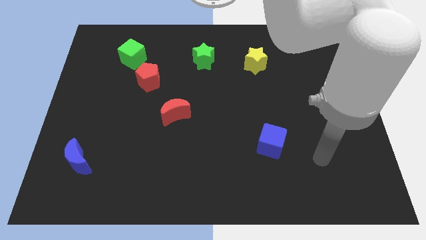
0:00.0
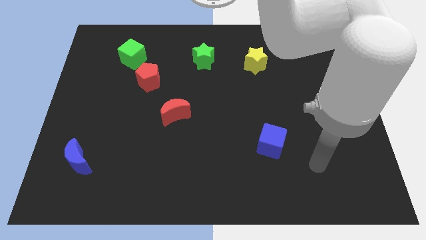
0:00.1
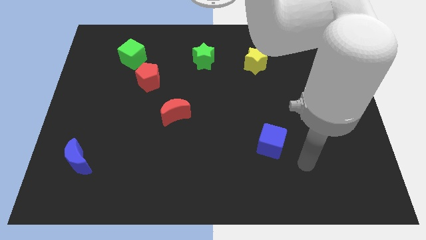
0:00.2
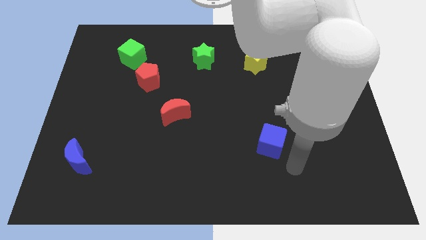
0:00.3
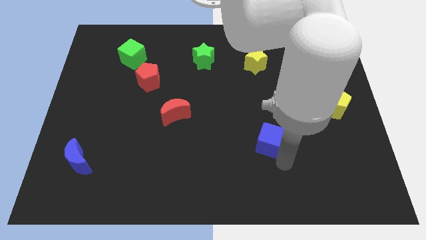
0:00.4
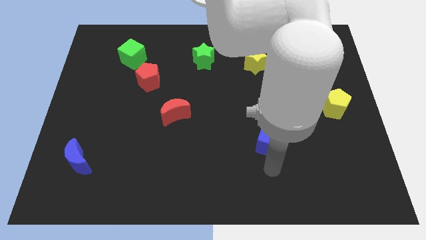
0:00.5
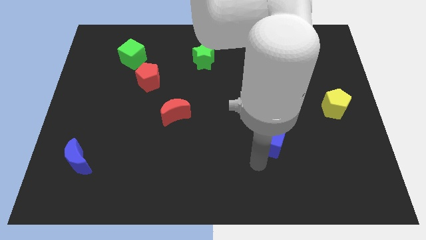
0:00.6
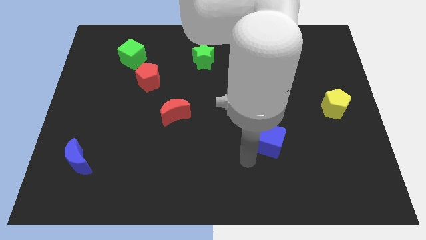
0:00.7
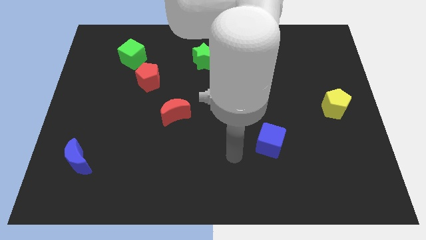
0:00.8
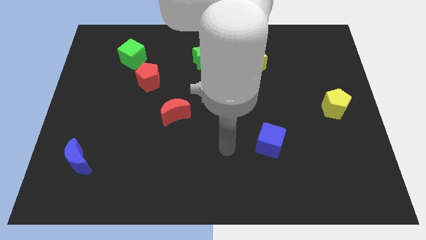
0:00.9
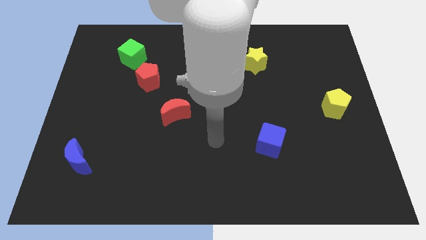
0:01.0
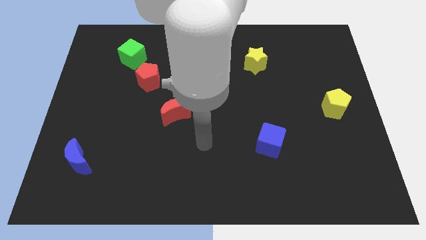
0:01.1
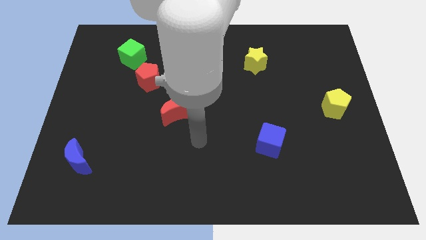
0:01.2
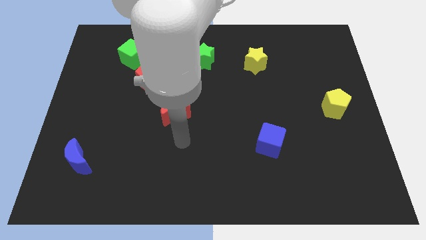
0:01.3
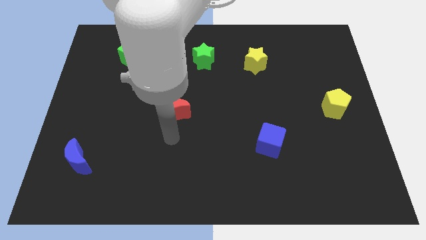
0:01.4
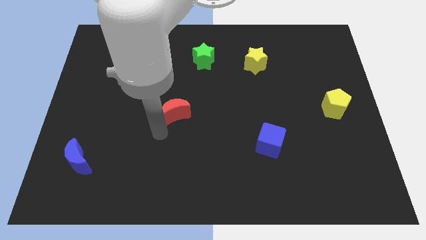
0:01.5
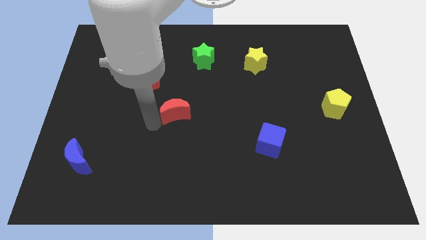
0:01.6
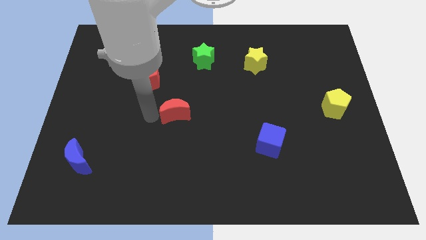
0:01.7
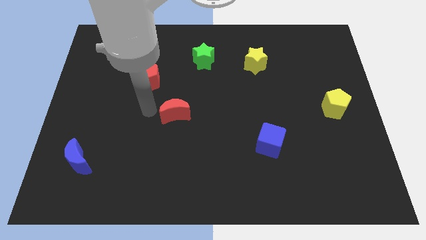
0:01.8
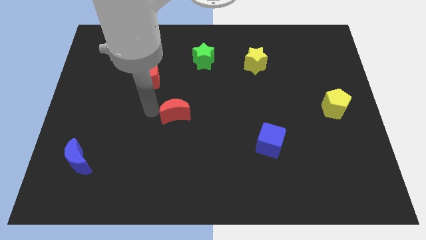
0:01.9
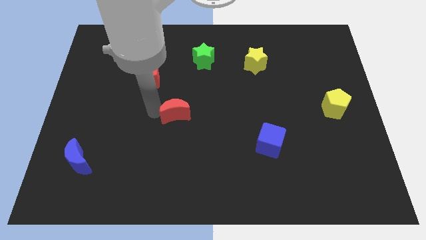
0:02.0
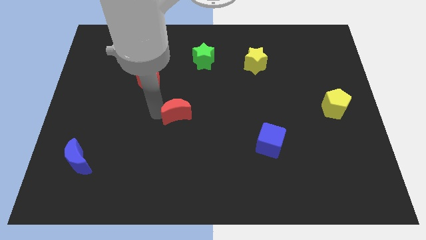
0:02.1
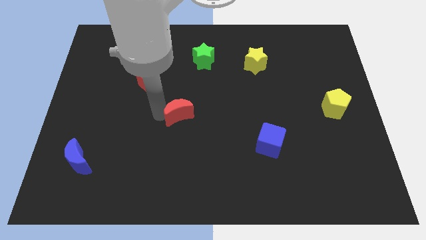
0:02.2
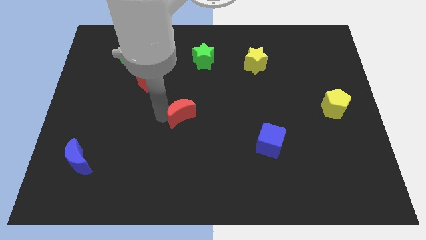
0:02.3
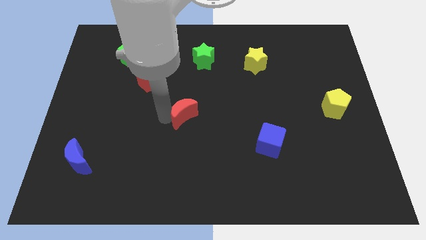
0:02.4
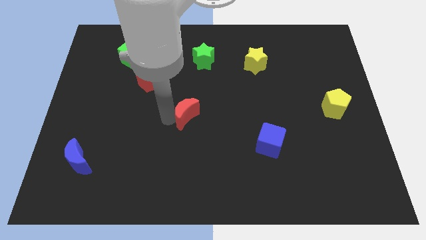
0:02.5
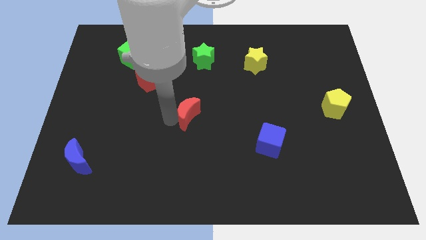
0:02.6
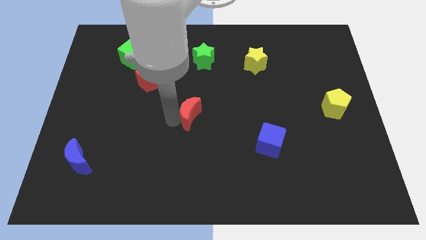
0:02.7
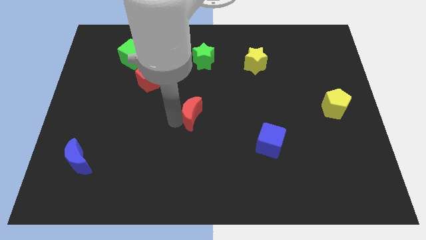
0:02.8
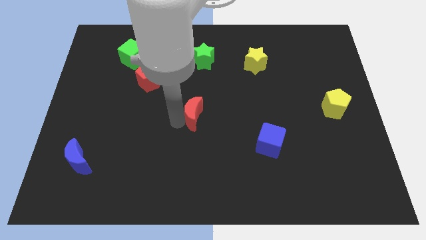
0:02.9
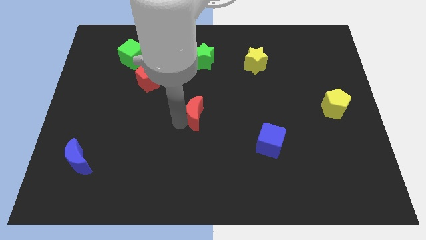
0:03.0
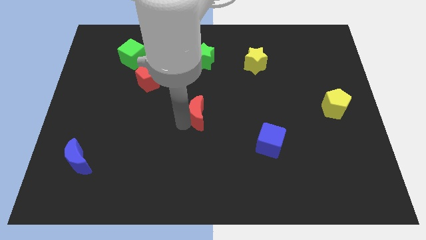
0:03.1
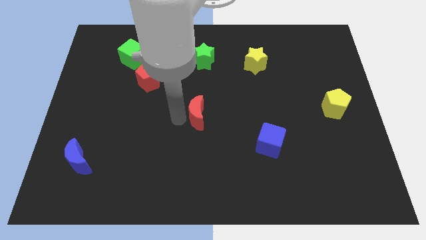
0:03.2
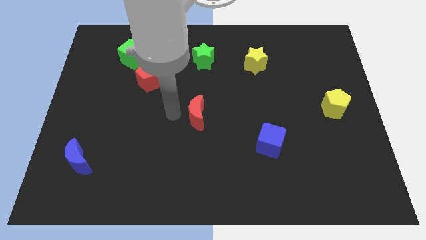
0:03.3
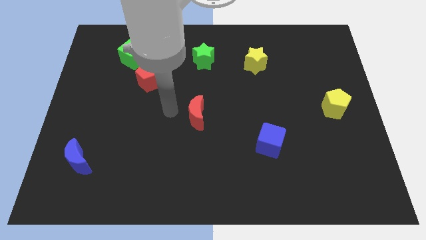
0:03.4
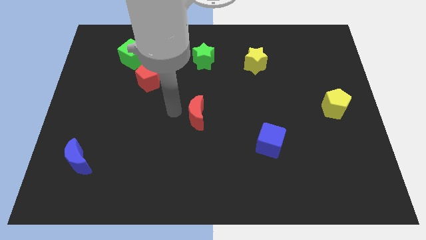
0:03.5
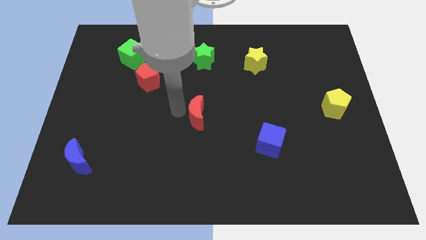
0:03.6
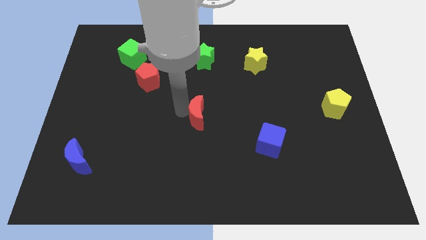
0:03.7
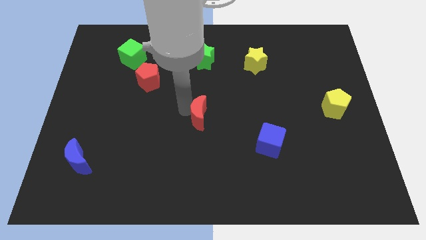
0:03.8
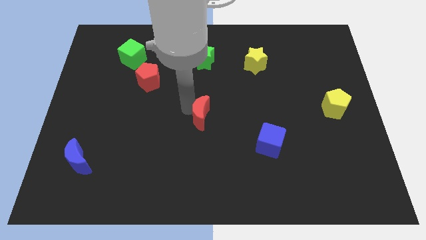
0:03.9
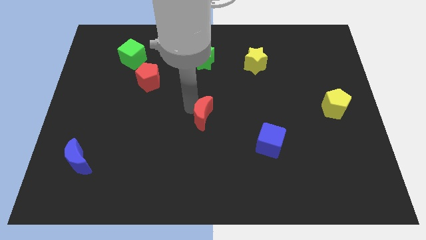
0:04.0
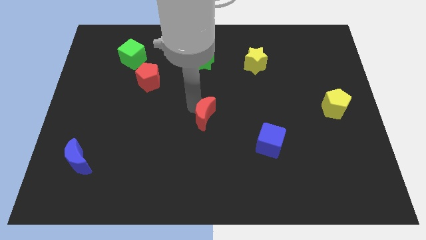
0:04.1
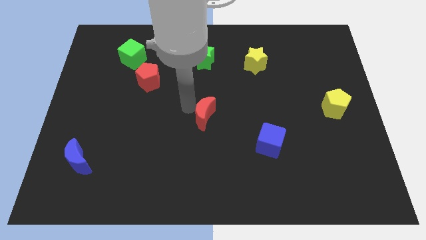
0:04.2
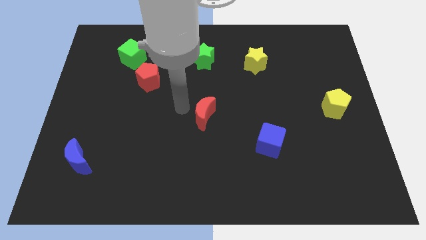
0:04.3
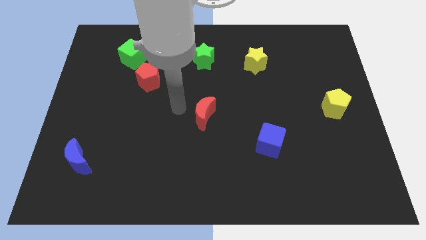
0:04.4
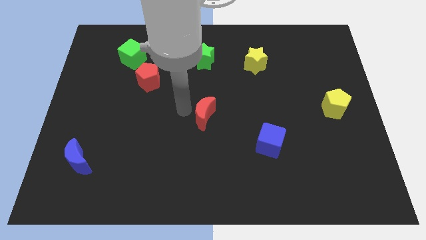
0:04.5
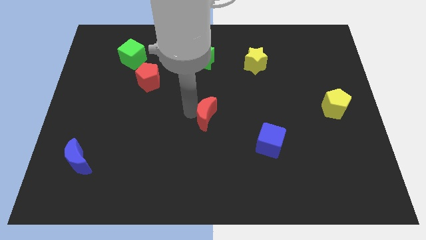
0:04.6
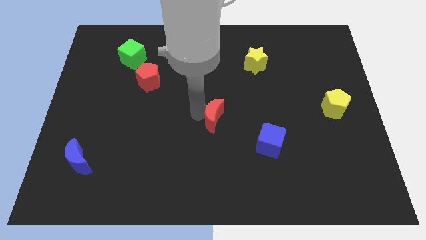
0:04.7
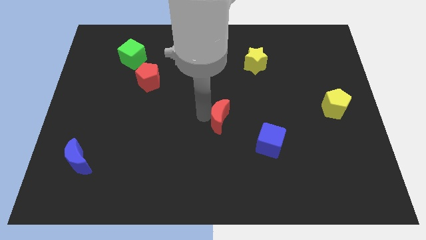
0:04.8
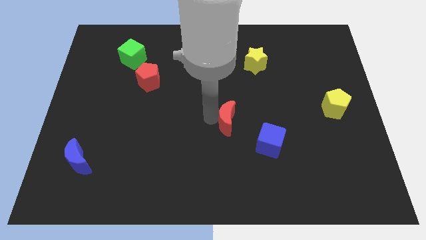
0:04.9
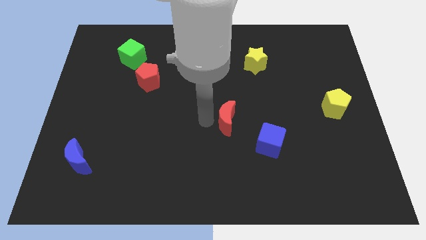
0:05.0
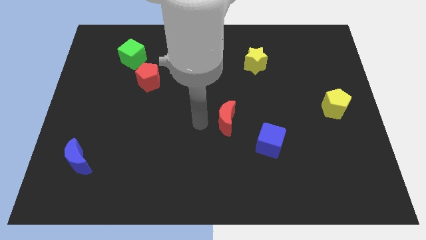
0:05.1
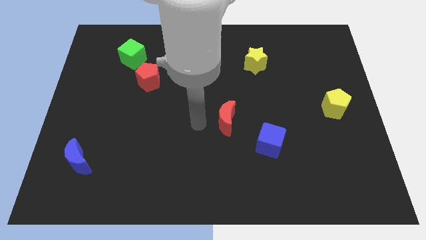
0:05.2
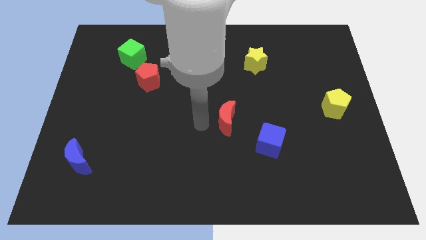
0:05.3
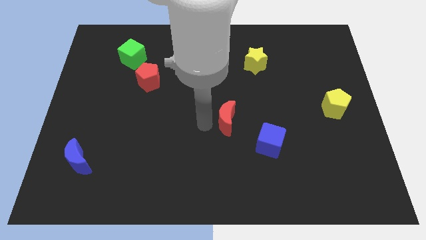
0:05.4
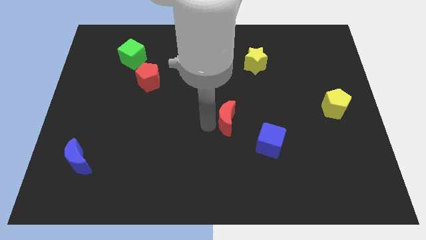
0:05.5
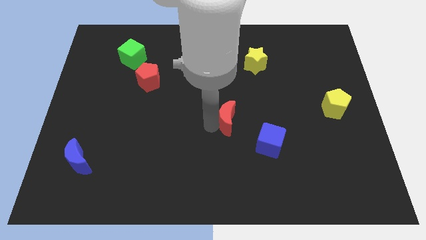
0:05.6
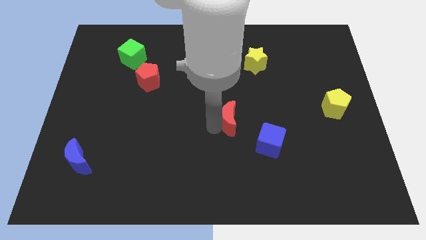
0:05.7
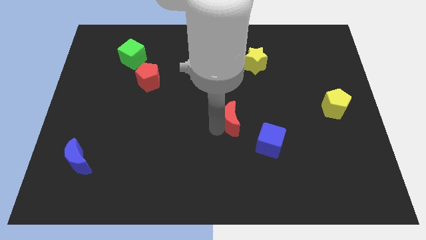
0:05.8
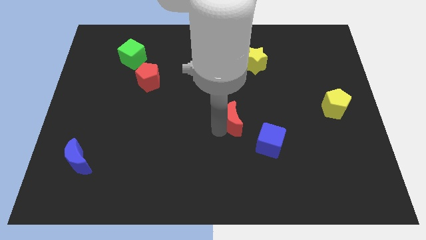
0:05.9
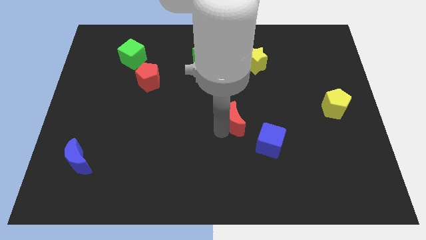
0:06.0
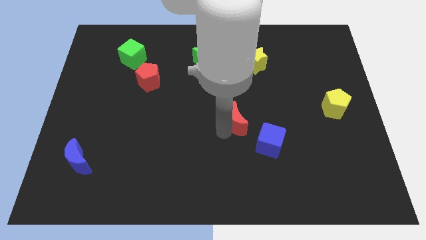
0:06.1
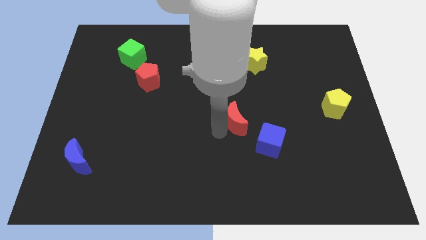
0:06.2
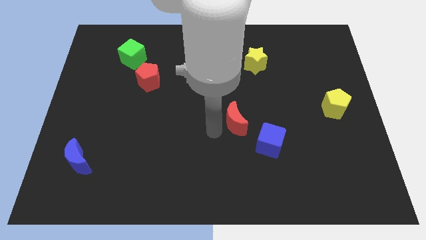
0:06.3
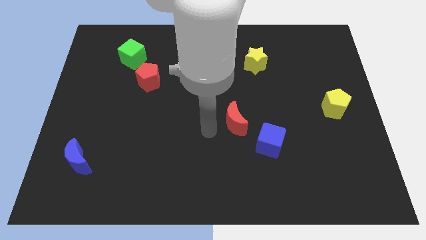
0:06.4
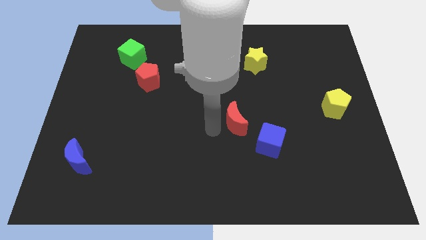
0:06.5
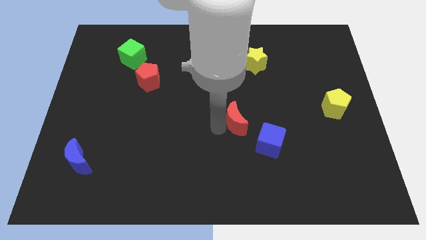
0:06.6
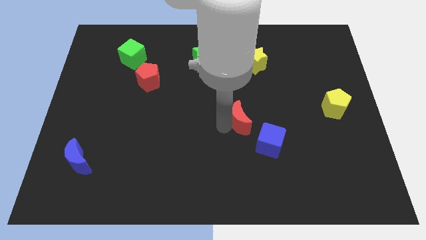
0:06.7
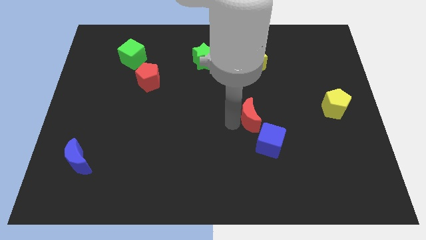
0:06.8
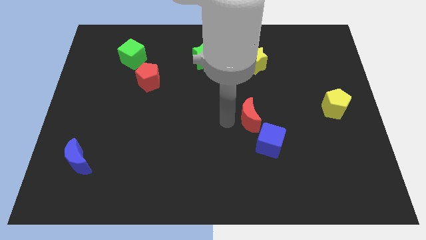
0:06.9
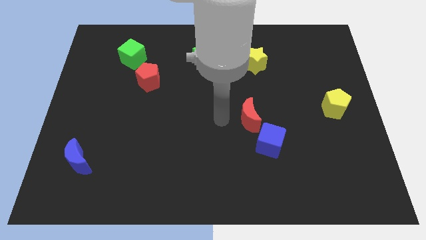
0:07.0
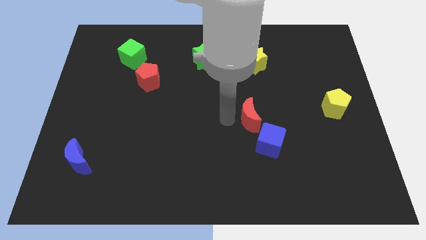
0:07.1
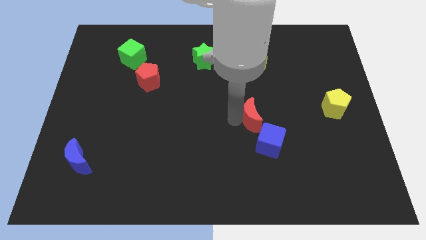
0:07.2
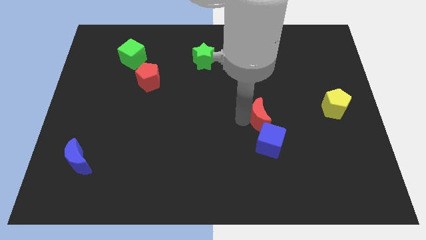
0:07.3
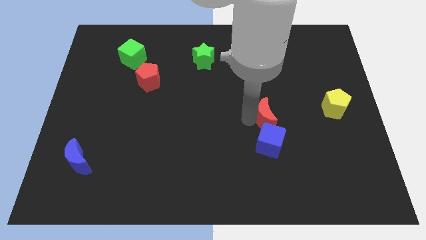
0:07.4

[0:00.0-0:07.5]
slide the red moon to the right

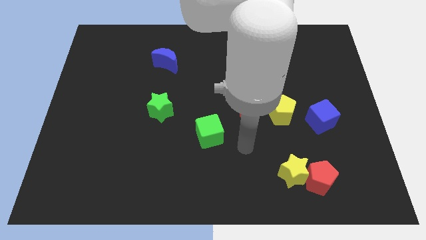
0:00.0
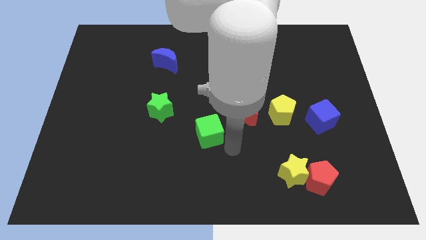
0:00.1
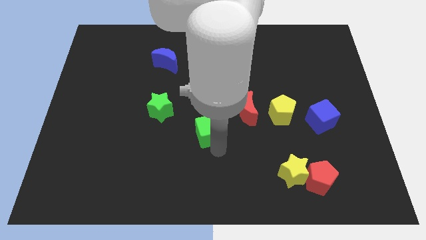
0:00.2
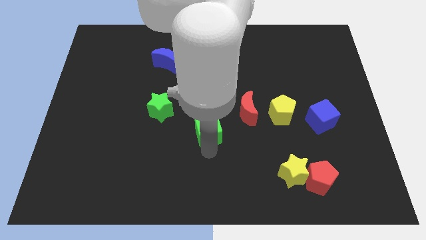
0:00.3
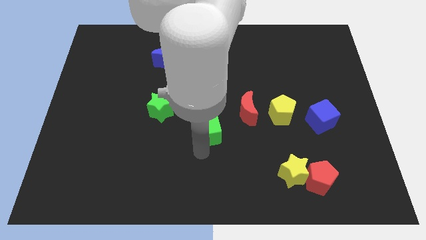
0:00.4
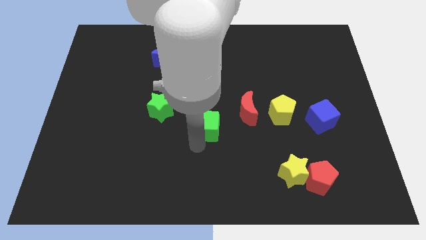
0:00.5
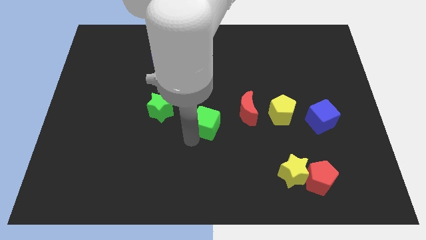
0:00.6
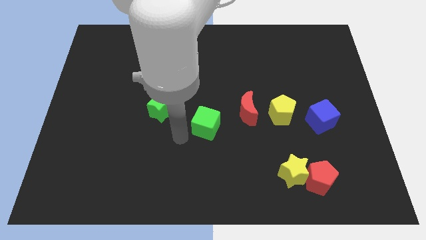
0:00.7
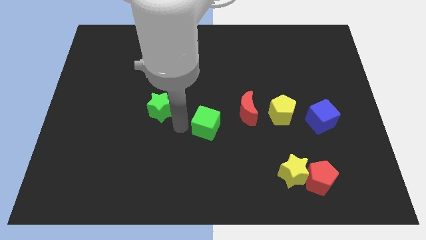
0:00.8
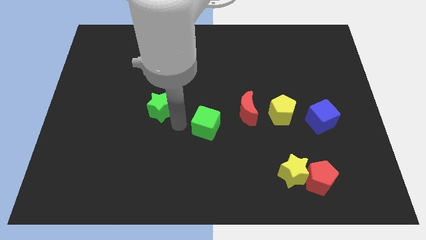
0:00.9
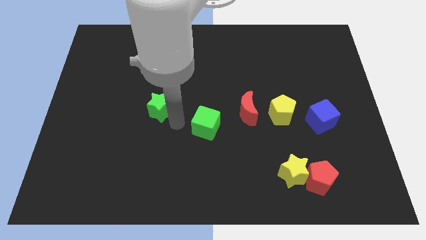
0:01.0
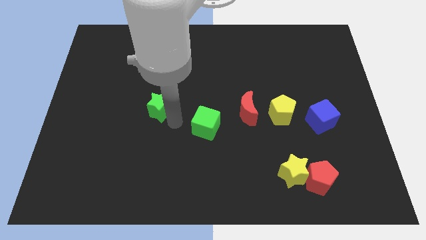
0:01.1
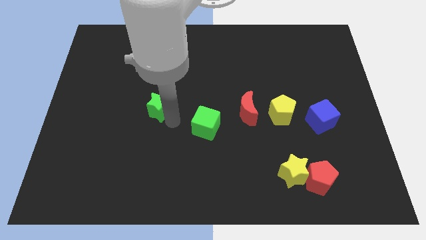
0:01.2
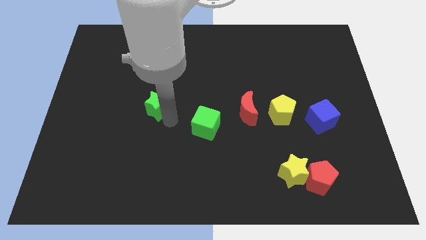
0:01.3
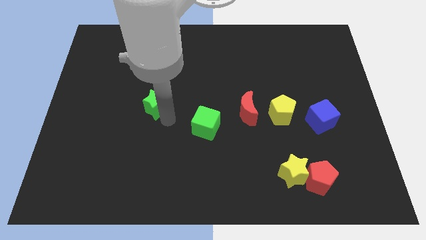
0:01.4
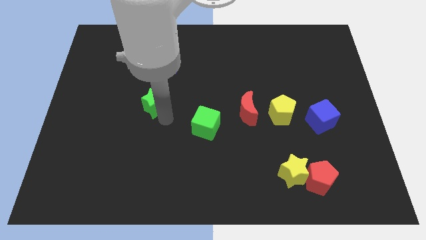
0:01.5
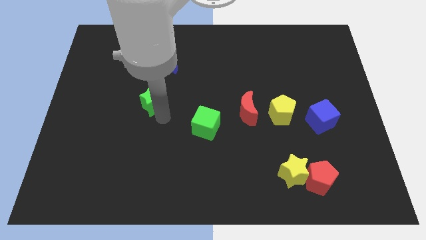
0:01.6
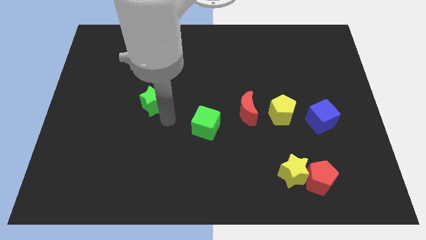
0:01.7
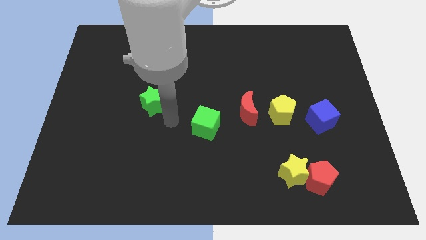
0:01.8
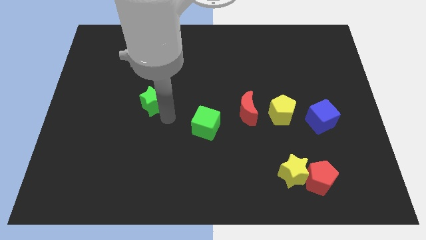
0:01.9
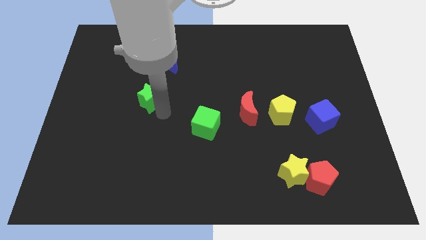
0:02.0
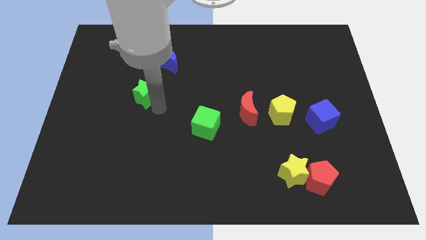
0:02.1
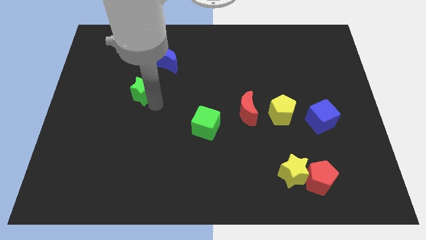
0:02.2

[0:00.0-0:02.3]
move the green star a little upwards and left diagonally
